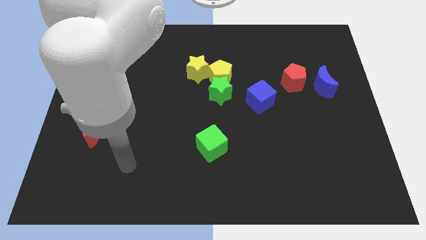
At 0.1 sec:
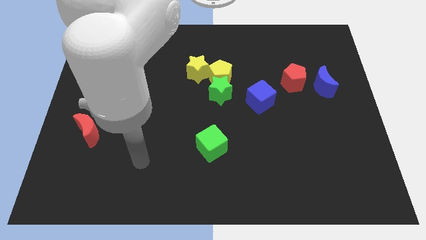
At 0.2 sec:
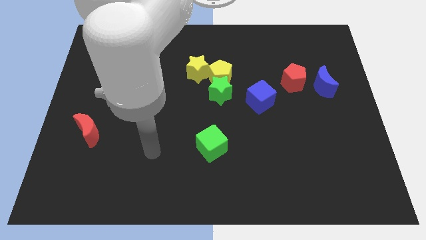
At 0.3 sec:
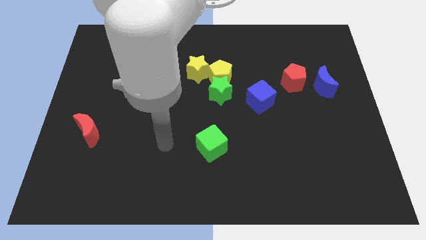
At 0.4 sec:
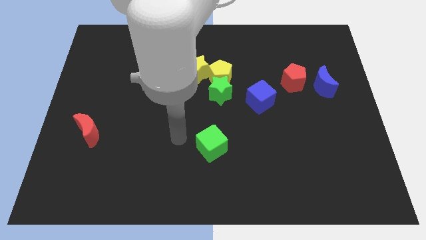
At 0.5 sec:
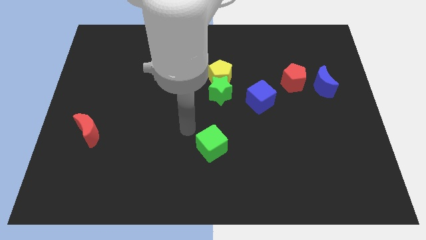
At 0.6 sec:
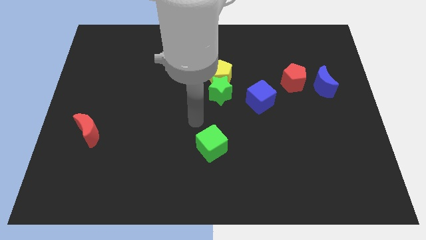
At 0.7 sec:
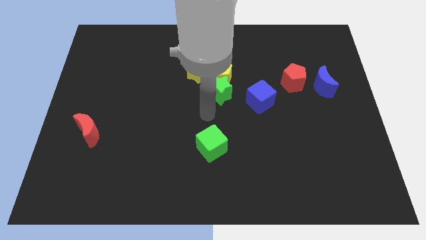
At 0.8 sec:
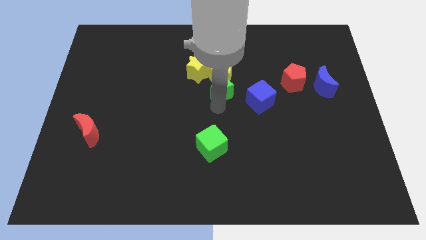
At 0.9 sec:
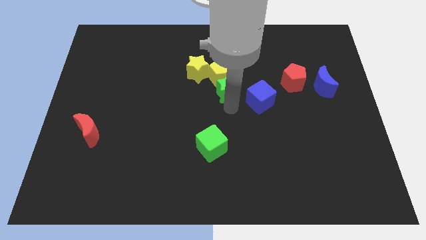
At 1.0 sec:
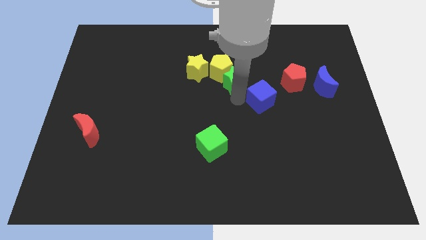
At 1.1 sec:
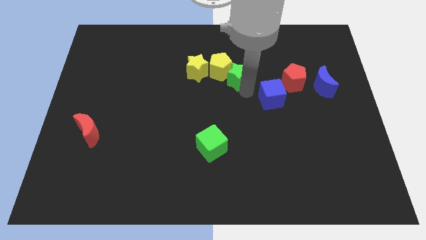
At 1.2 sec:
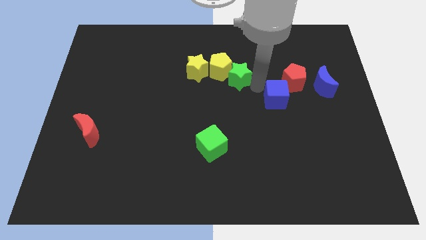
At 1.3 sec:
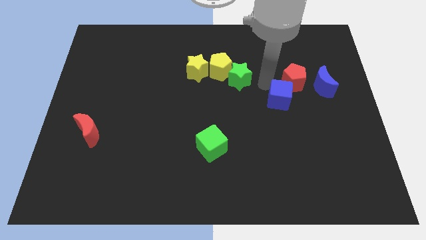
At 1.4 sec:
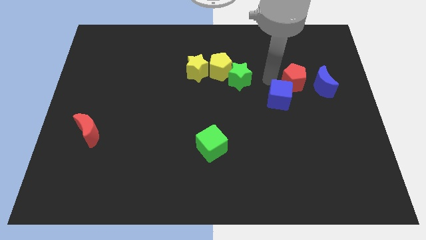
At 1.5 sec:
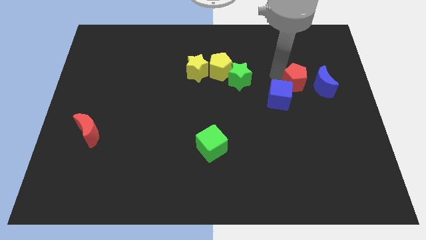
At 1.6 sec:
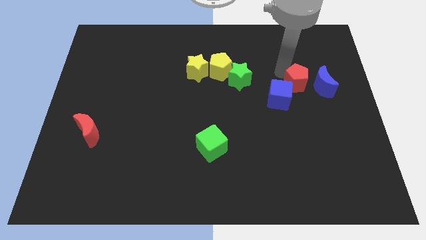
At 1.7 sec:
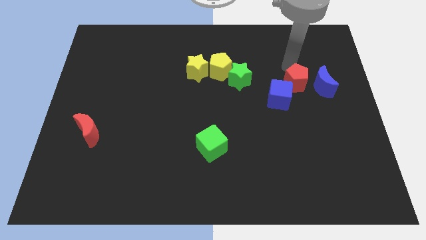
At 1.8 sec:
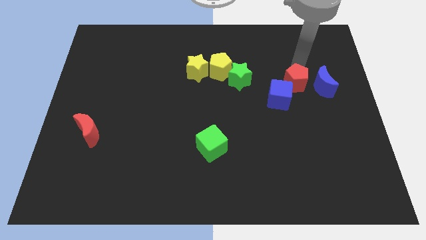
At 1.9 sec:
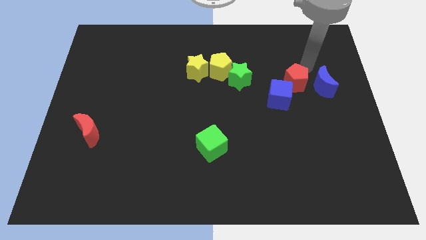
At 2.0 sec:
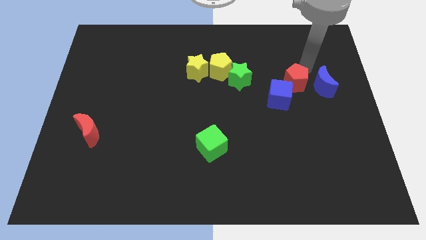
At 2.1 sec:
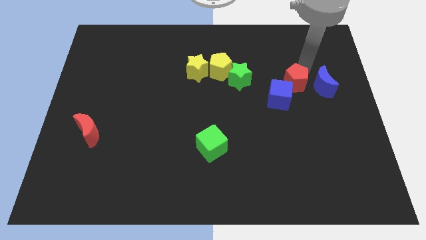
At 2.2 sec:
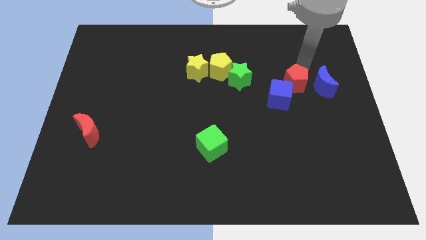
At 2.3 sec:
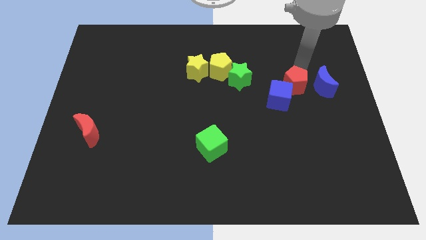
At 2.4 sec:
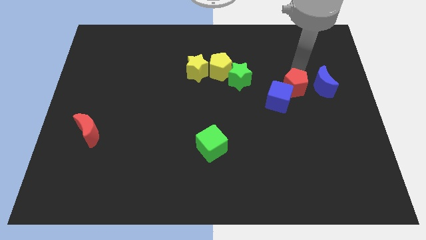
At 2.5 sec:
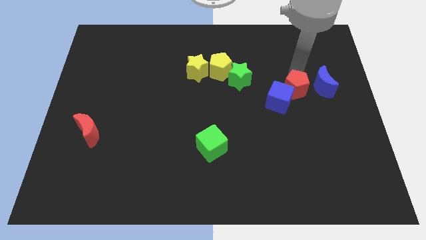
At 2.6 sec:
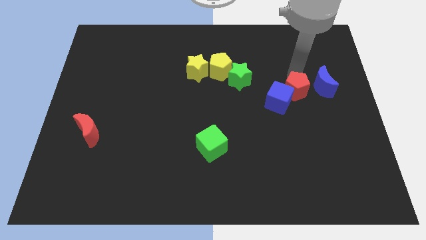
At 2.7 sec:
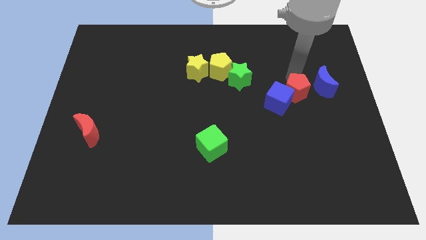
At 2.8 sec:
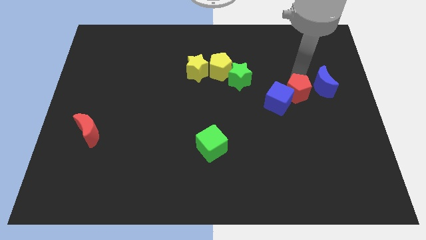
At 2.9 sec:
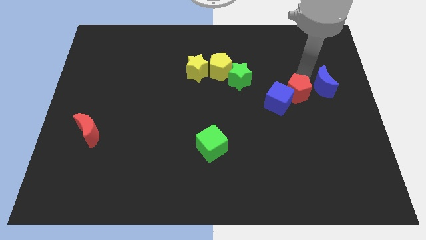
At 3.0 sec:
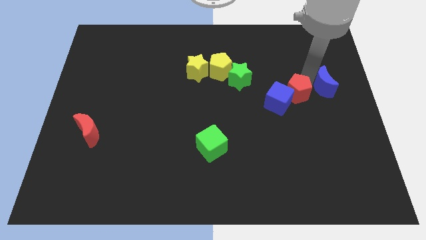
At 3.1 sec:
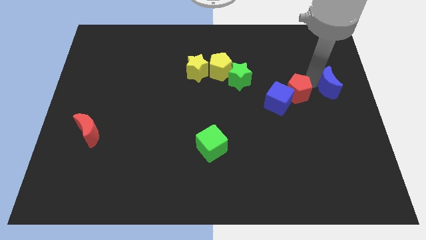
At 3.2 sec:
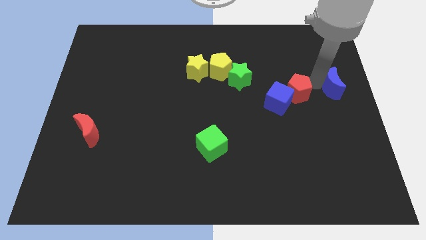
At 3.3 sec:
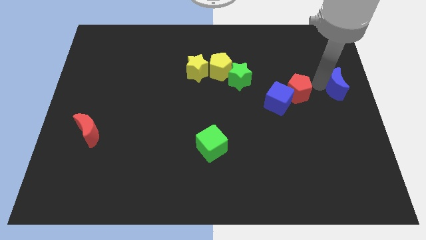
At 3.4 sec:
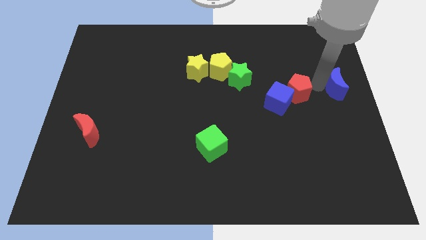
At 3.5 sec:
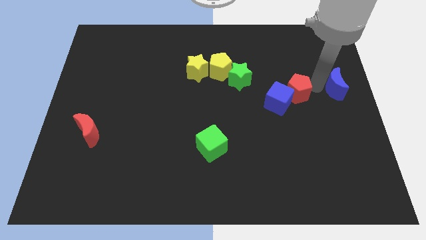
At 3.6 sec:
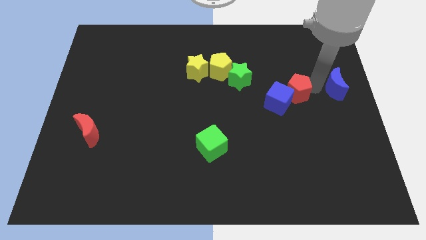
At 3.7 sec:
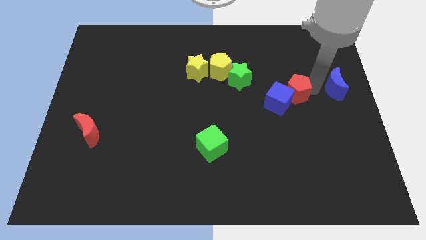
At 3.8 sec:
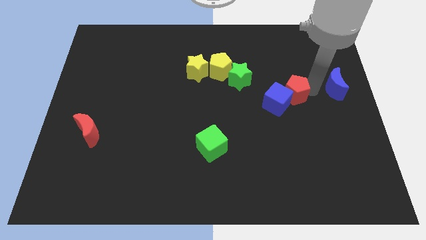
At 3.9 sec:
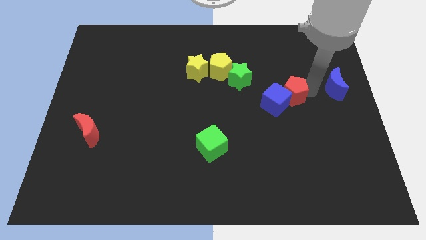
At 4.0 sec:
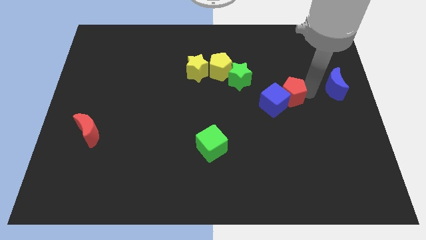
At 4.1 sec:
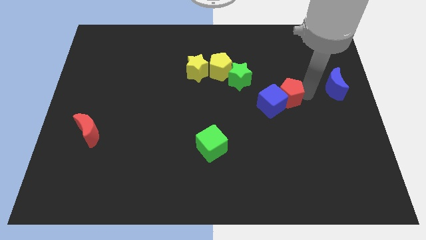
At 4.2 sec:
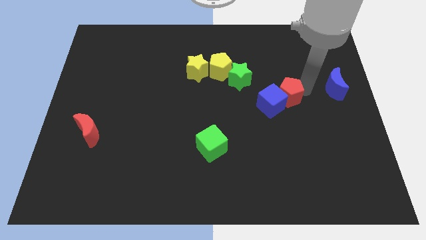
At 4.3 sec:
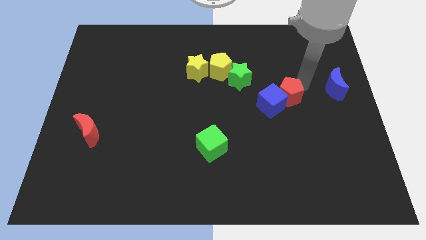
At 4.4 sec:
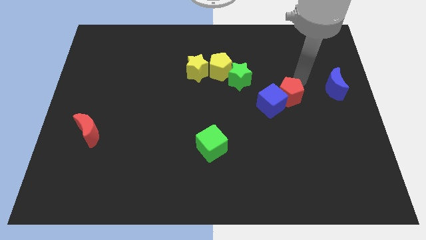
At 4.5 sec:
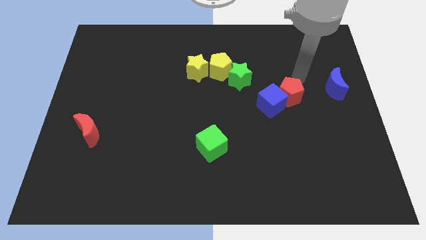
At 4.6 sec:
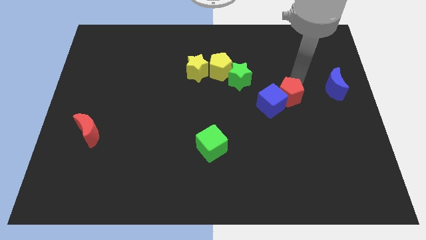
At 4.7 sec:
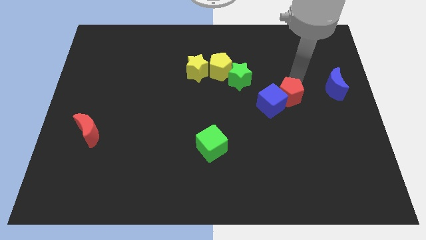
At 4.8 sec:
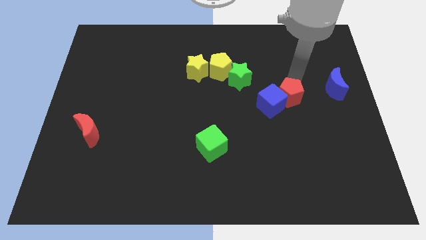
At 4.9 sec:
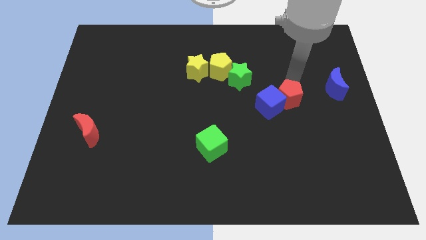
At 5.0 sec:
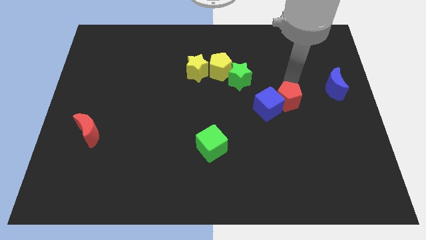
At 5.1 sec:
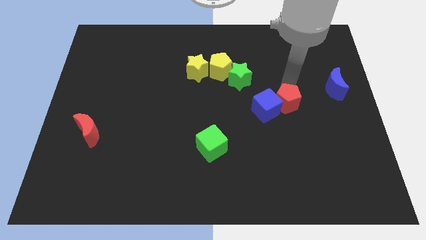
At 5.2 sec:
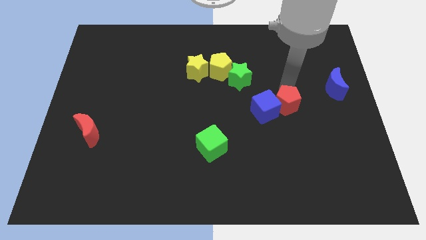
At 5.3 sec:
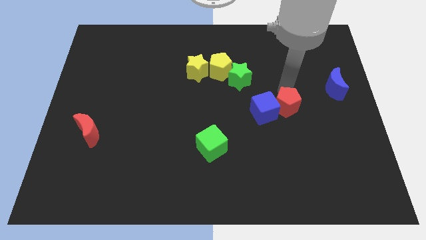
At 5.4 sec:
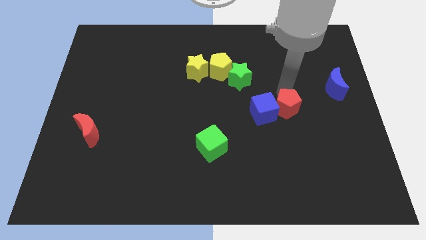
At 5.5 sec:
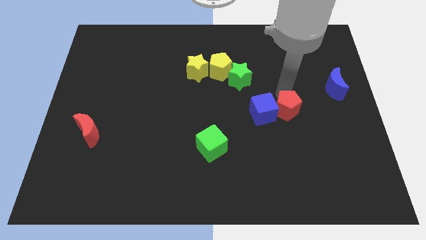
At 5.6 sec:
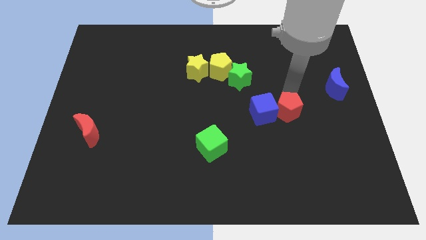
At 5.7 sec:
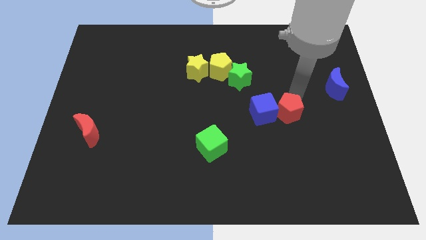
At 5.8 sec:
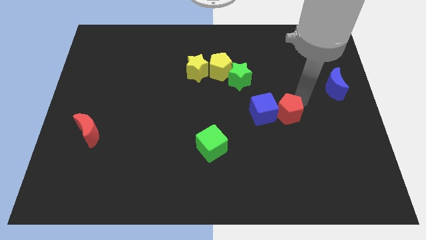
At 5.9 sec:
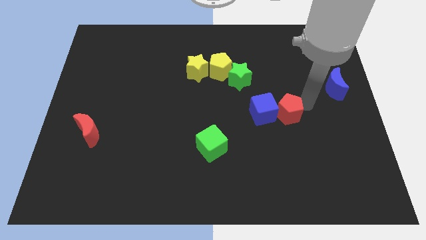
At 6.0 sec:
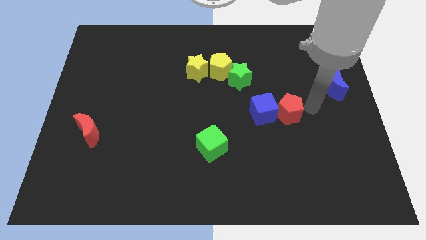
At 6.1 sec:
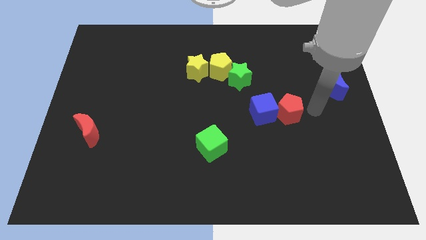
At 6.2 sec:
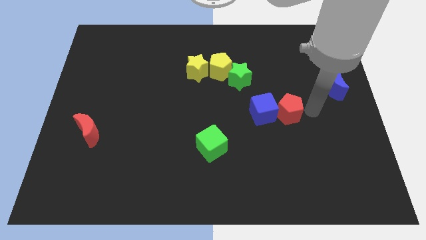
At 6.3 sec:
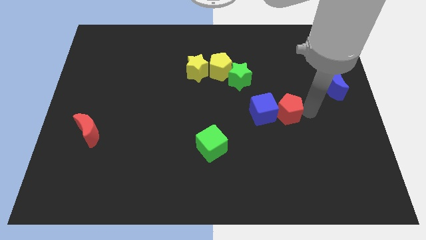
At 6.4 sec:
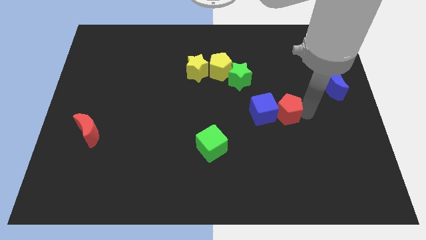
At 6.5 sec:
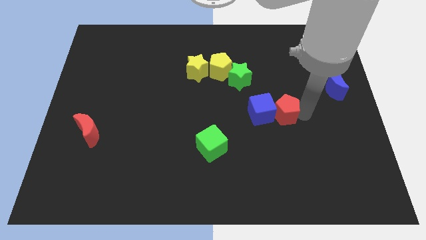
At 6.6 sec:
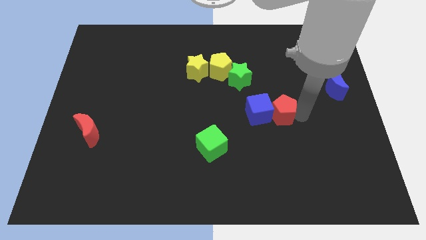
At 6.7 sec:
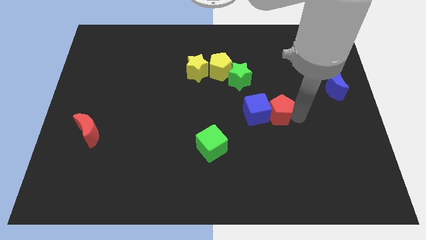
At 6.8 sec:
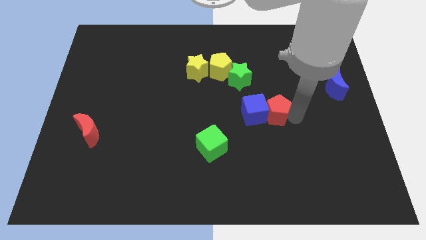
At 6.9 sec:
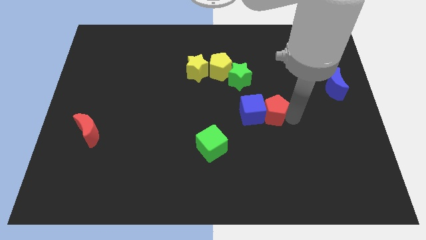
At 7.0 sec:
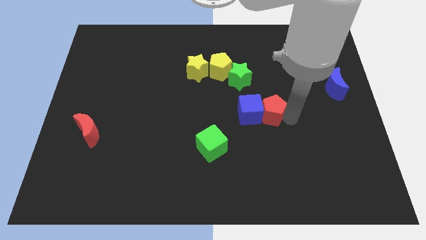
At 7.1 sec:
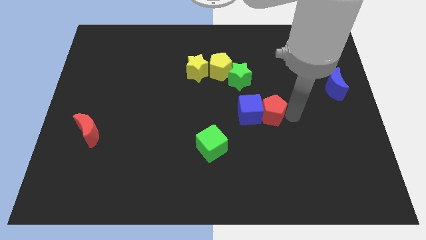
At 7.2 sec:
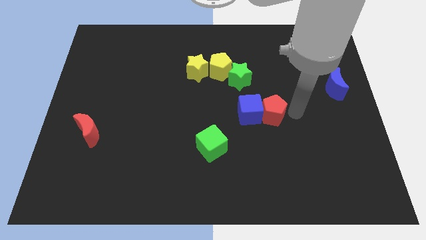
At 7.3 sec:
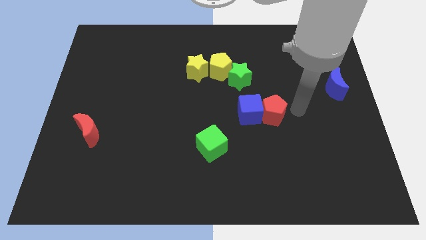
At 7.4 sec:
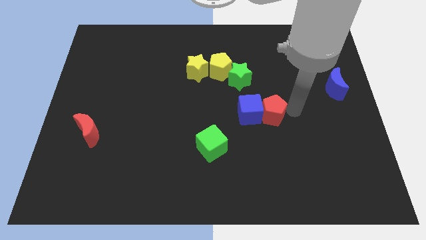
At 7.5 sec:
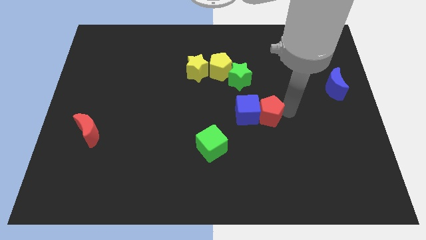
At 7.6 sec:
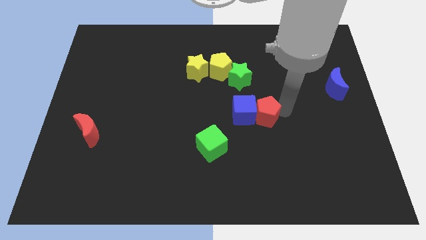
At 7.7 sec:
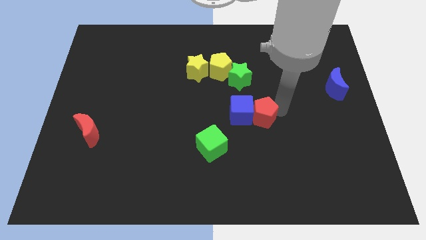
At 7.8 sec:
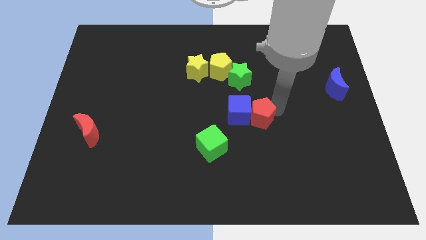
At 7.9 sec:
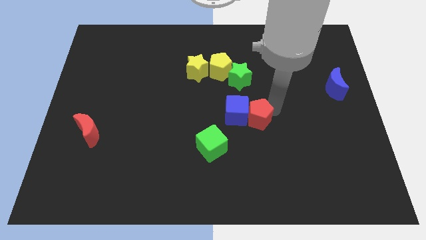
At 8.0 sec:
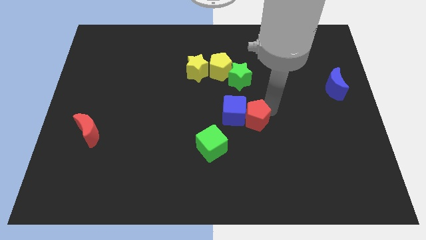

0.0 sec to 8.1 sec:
slide the red pentagon diagonally up and to the right of the green cube
